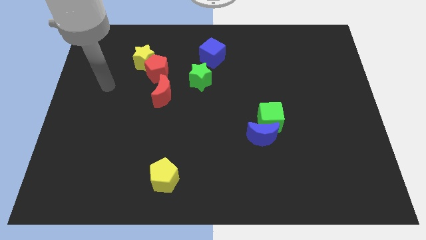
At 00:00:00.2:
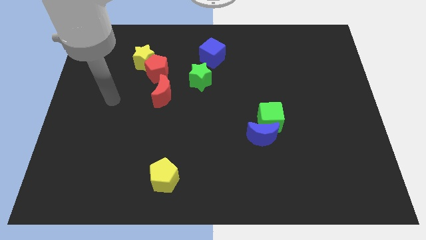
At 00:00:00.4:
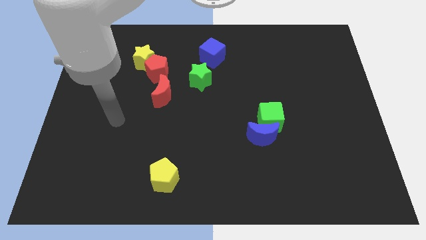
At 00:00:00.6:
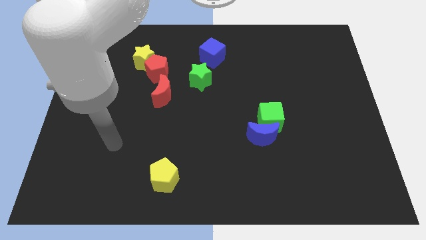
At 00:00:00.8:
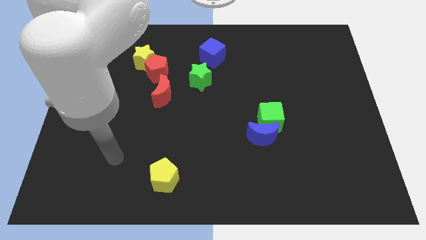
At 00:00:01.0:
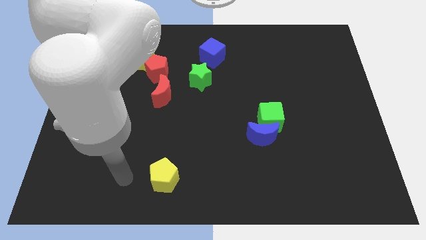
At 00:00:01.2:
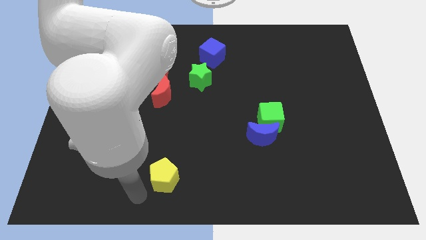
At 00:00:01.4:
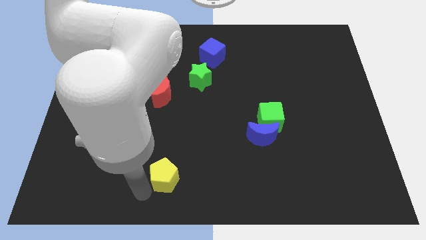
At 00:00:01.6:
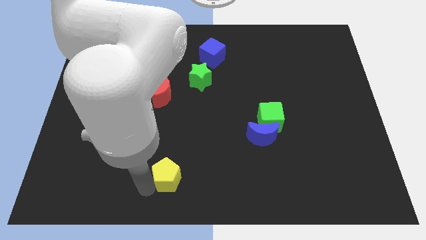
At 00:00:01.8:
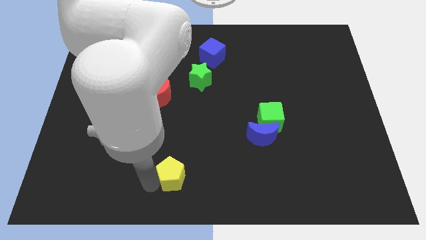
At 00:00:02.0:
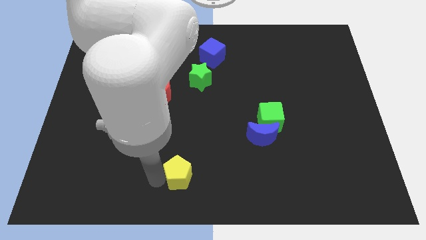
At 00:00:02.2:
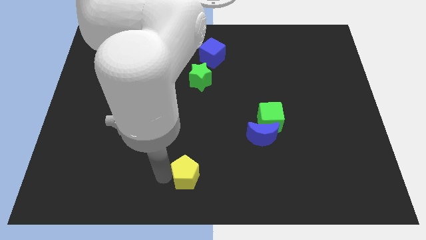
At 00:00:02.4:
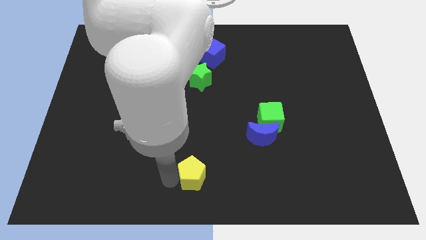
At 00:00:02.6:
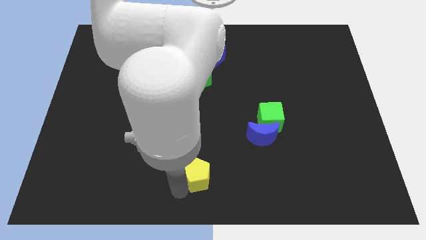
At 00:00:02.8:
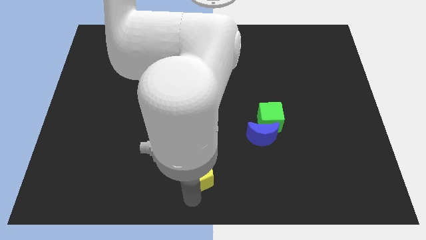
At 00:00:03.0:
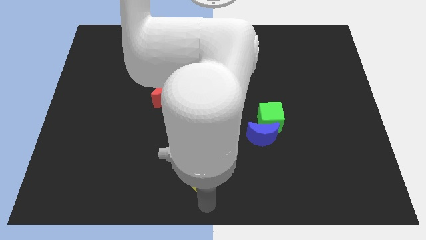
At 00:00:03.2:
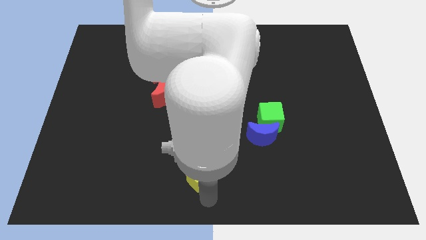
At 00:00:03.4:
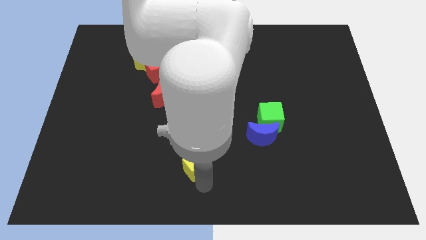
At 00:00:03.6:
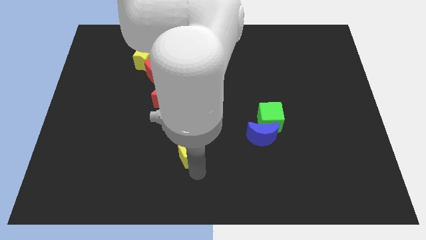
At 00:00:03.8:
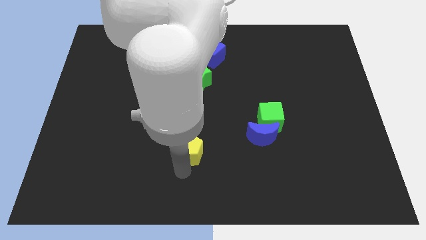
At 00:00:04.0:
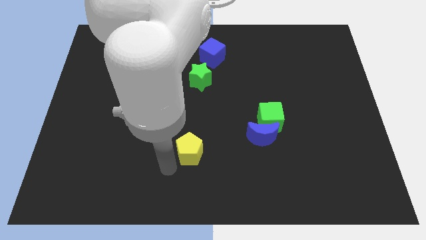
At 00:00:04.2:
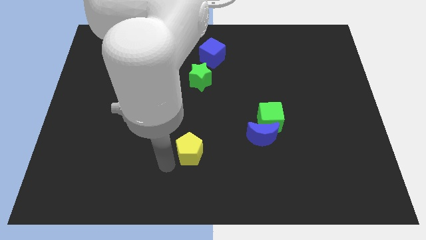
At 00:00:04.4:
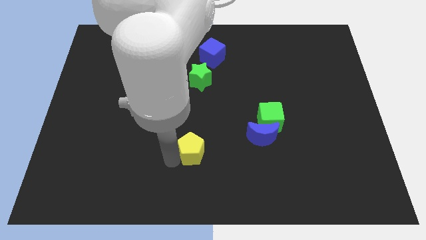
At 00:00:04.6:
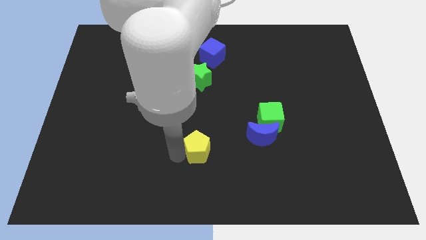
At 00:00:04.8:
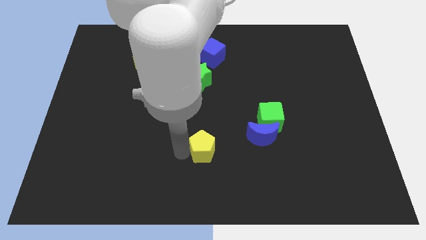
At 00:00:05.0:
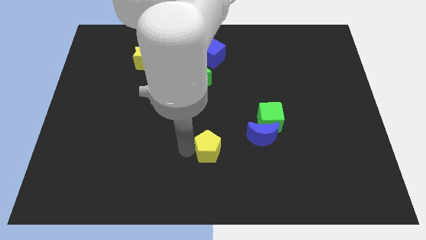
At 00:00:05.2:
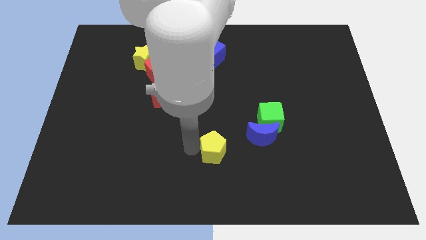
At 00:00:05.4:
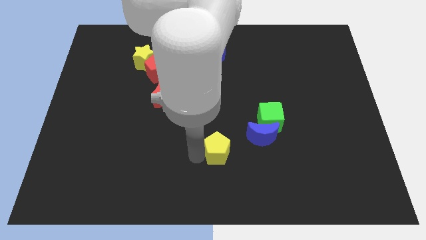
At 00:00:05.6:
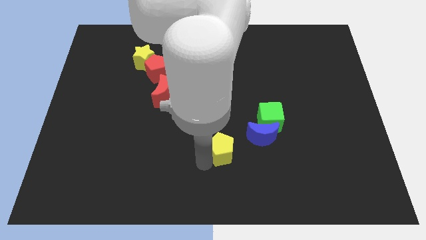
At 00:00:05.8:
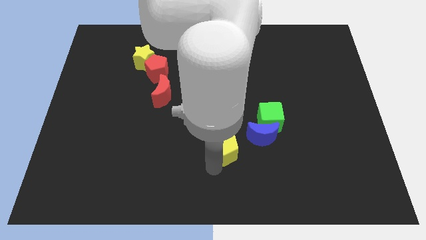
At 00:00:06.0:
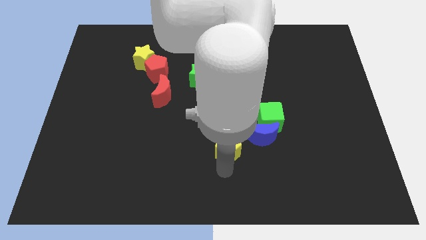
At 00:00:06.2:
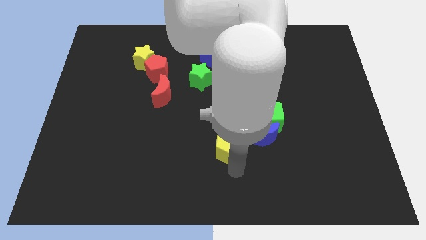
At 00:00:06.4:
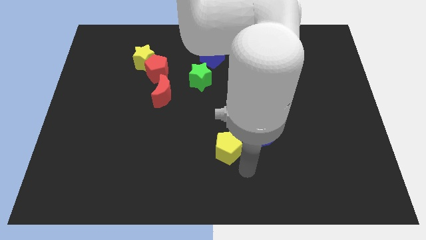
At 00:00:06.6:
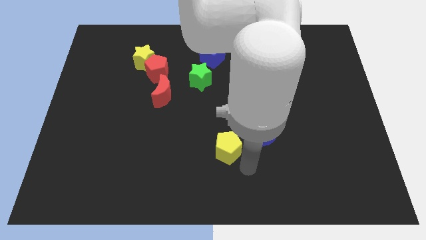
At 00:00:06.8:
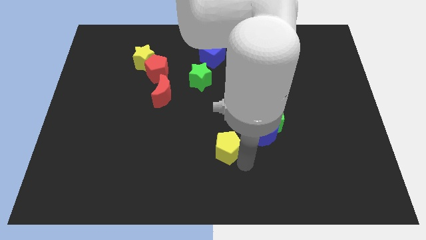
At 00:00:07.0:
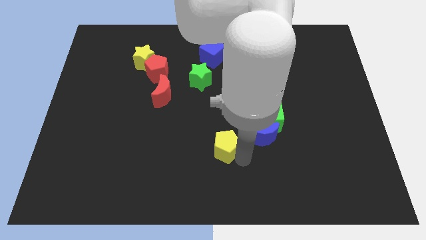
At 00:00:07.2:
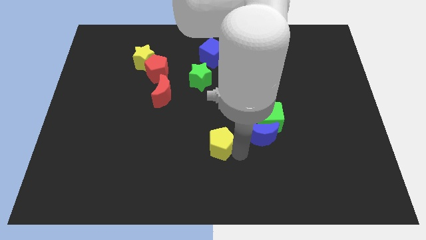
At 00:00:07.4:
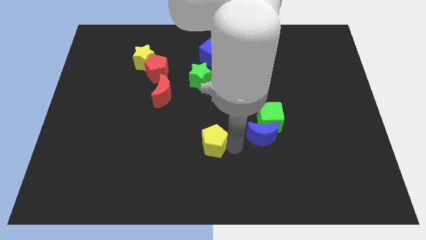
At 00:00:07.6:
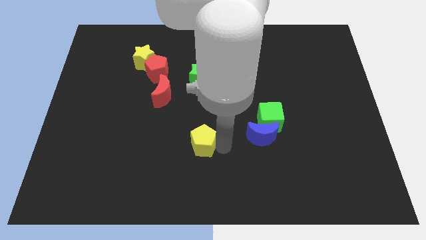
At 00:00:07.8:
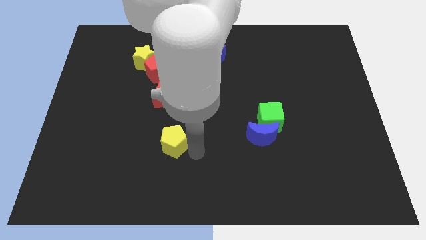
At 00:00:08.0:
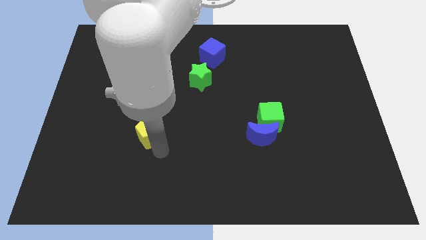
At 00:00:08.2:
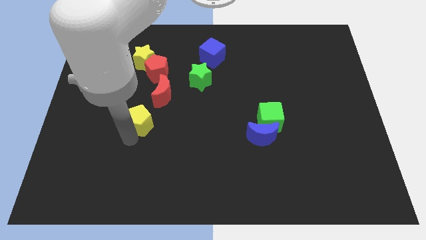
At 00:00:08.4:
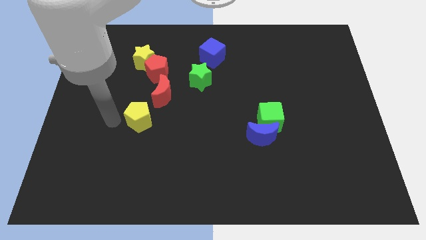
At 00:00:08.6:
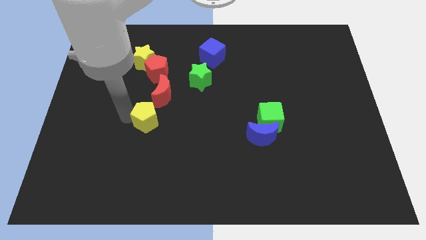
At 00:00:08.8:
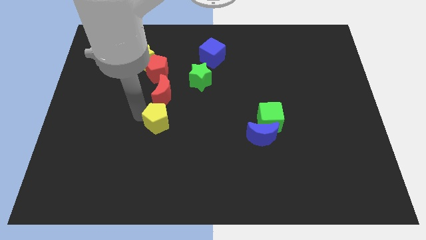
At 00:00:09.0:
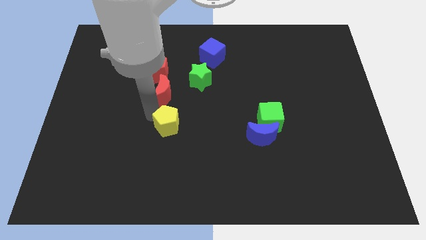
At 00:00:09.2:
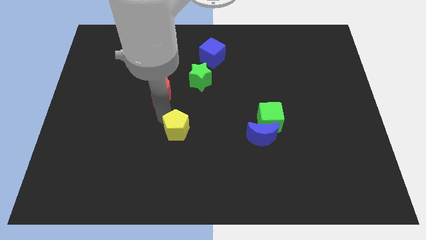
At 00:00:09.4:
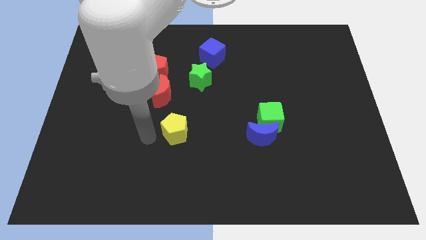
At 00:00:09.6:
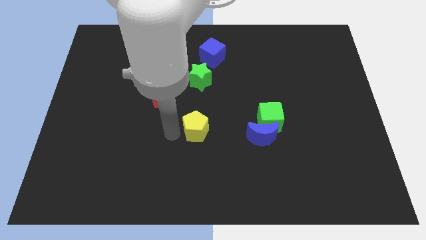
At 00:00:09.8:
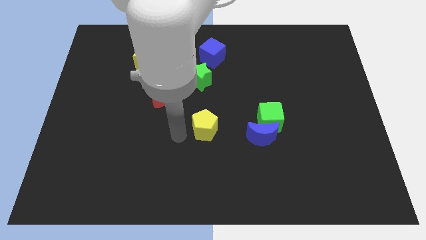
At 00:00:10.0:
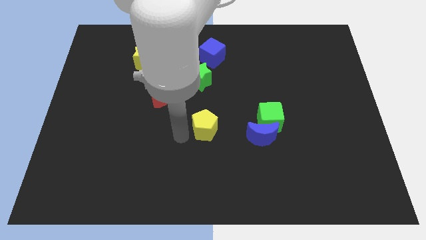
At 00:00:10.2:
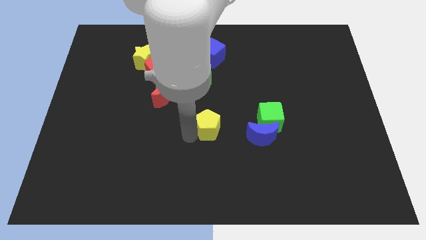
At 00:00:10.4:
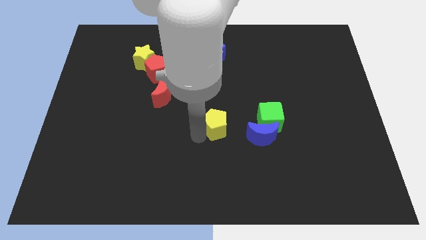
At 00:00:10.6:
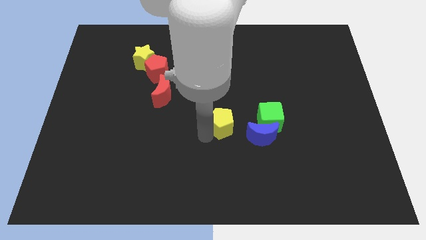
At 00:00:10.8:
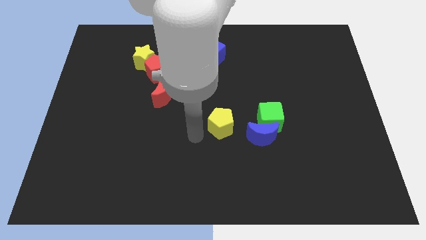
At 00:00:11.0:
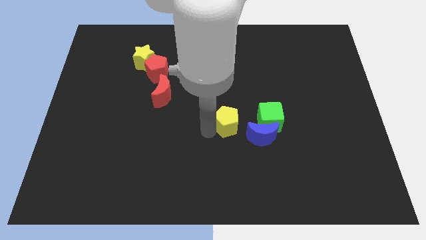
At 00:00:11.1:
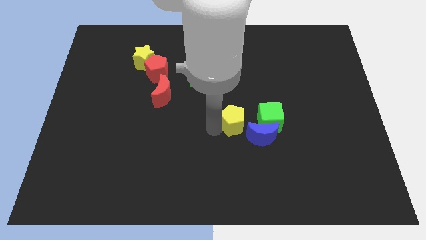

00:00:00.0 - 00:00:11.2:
move the yellow pentagon up and to the right

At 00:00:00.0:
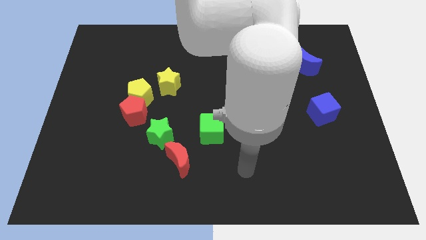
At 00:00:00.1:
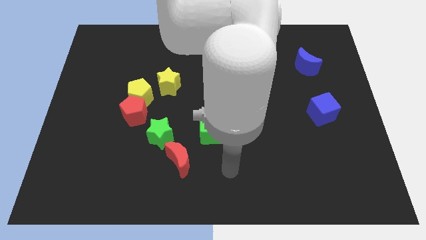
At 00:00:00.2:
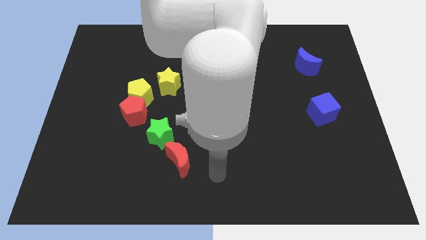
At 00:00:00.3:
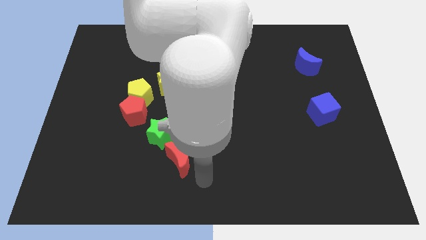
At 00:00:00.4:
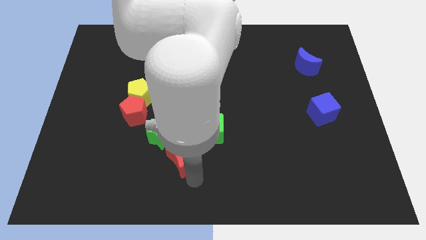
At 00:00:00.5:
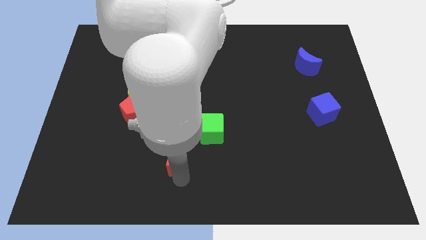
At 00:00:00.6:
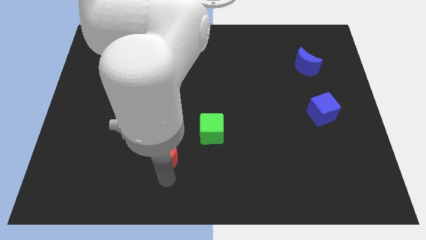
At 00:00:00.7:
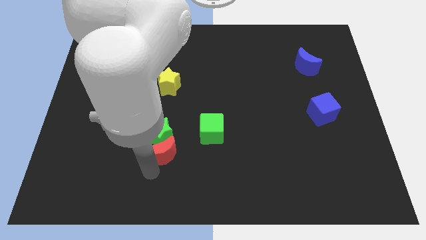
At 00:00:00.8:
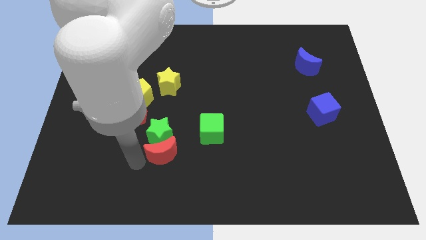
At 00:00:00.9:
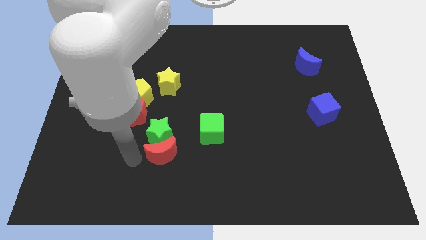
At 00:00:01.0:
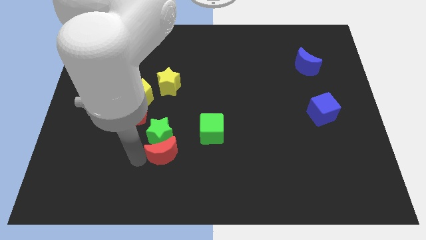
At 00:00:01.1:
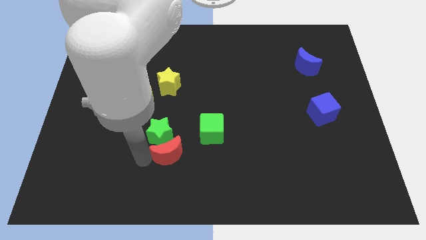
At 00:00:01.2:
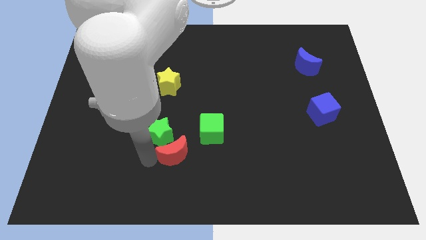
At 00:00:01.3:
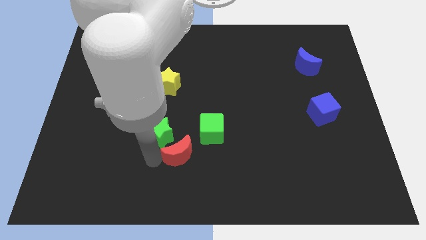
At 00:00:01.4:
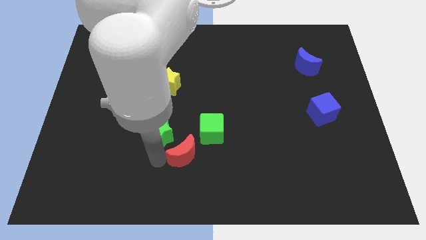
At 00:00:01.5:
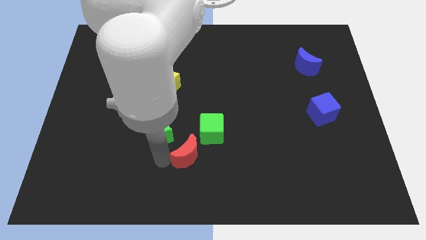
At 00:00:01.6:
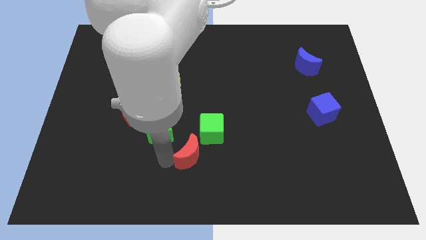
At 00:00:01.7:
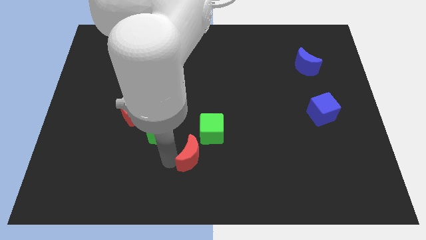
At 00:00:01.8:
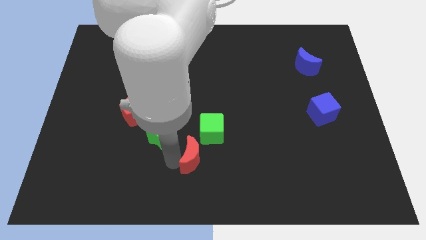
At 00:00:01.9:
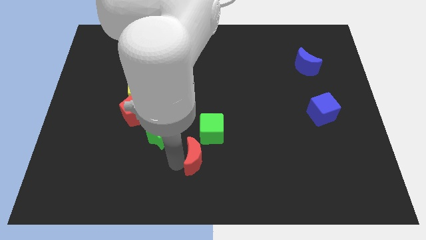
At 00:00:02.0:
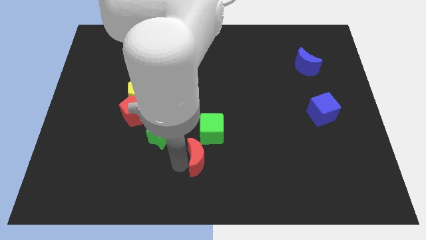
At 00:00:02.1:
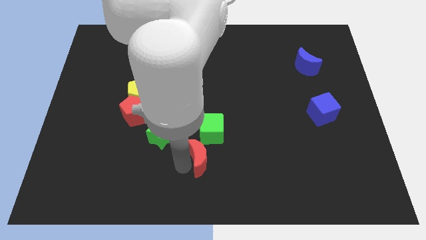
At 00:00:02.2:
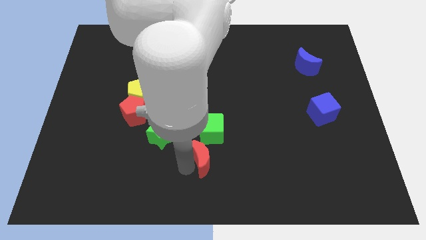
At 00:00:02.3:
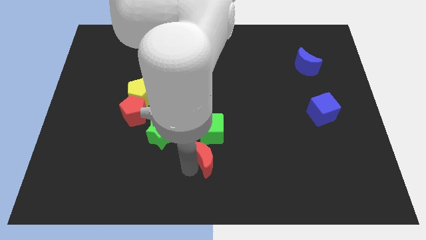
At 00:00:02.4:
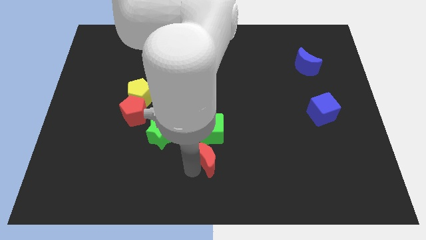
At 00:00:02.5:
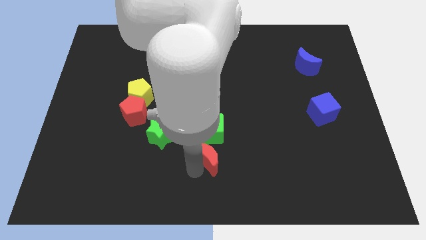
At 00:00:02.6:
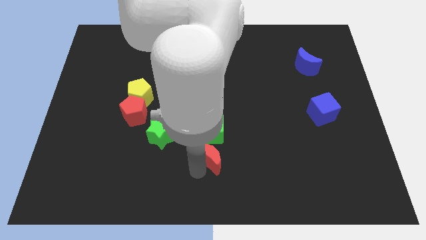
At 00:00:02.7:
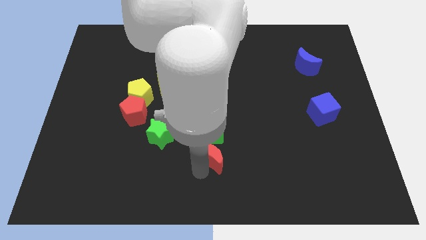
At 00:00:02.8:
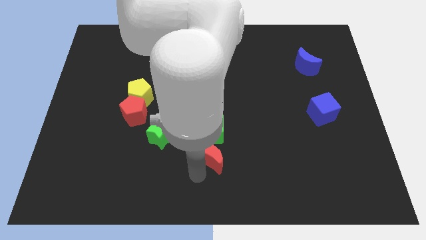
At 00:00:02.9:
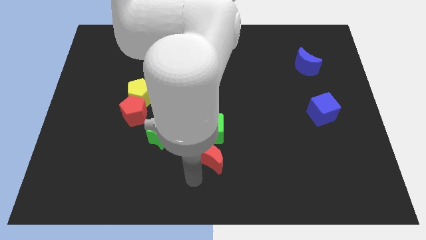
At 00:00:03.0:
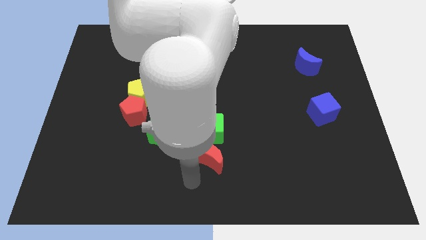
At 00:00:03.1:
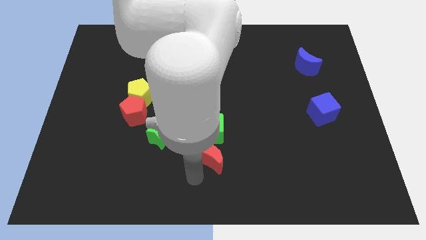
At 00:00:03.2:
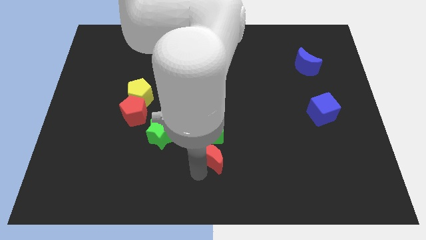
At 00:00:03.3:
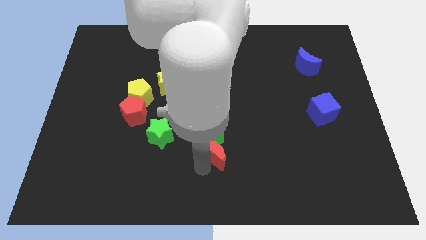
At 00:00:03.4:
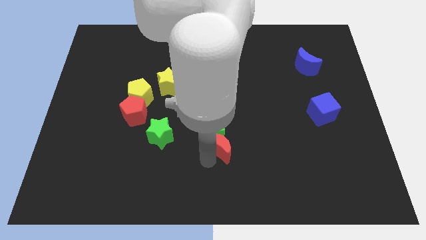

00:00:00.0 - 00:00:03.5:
slightly push the red moon upwards and right diagonally
